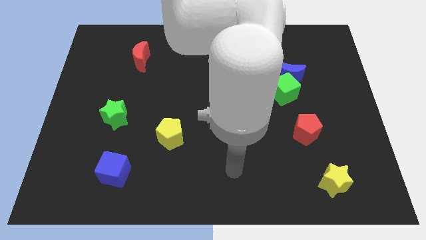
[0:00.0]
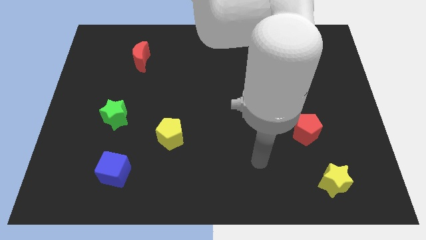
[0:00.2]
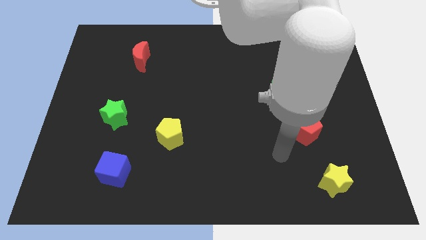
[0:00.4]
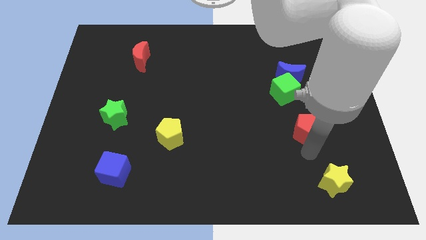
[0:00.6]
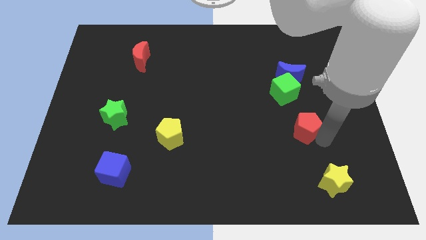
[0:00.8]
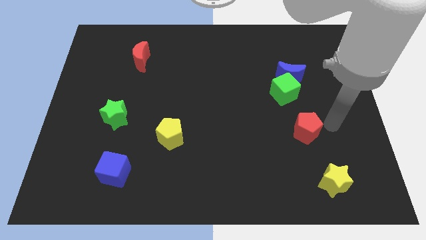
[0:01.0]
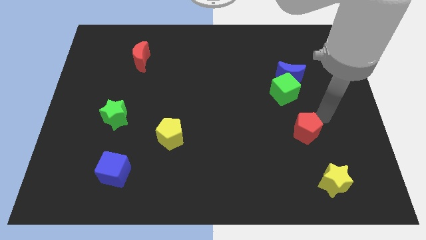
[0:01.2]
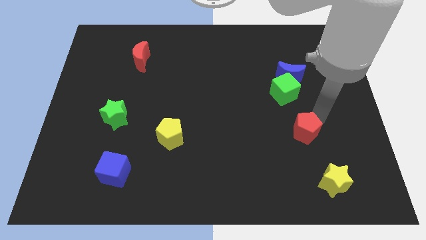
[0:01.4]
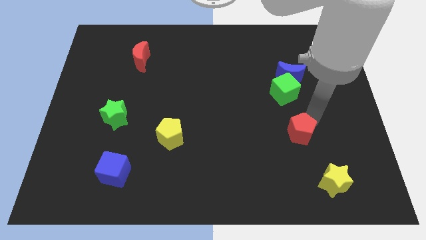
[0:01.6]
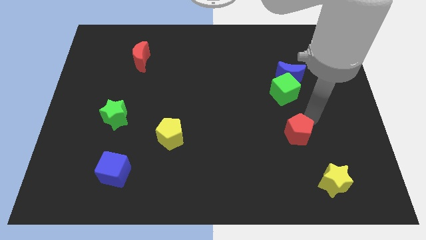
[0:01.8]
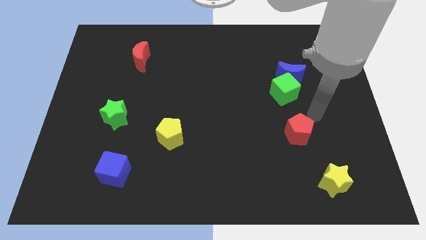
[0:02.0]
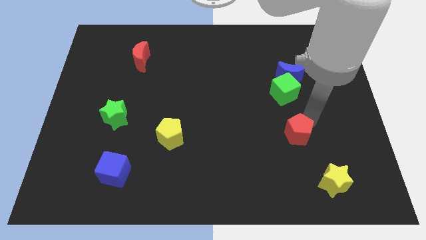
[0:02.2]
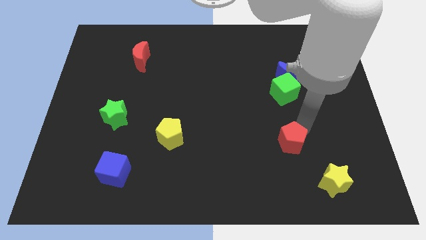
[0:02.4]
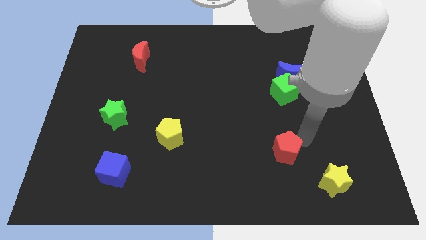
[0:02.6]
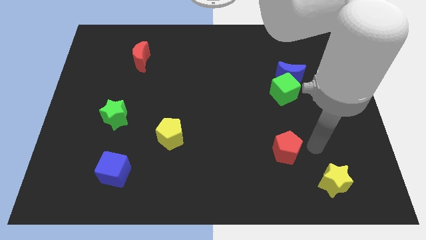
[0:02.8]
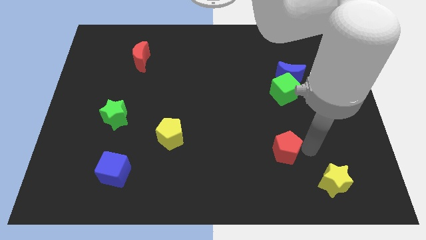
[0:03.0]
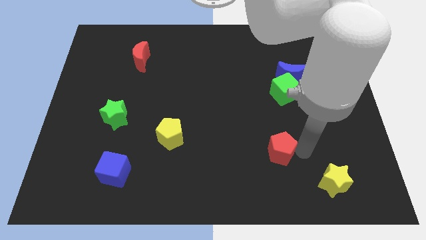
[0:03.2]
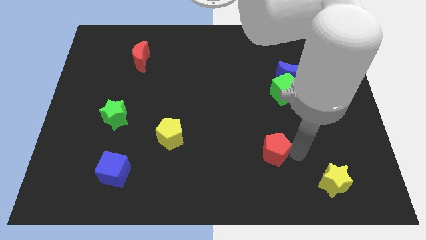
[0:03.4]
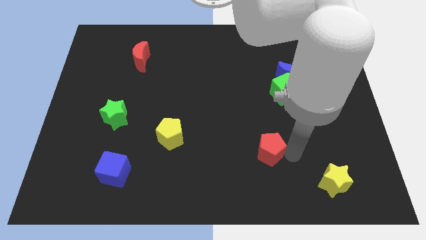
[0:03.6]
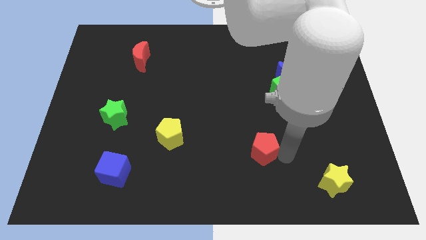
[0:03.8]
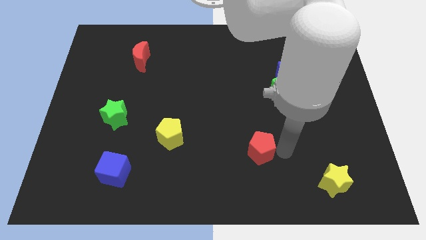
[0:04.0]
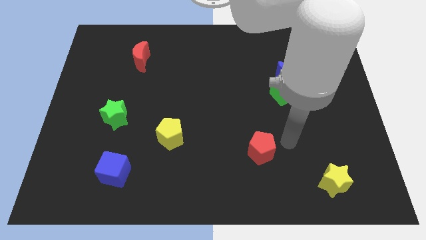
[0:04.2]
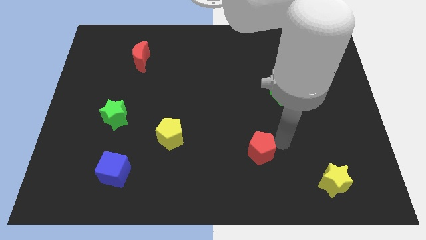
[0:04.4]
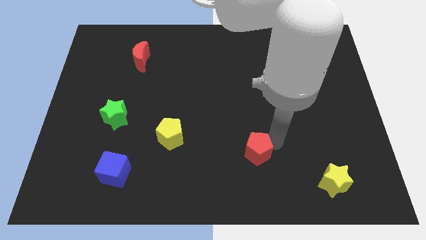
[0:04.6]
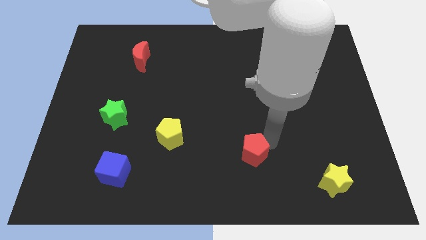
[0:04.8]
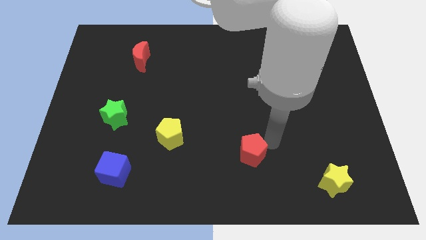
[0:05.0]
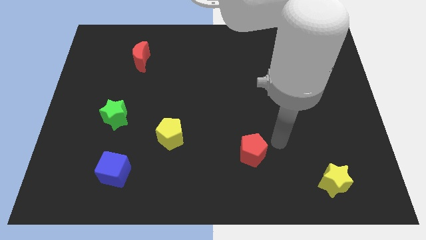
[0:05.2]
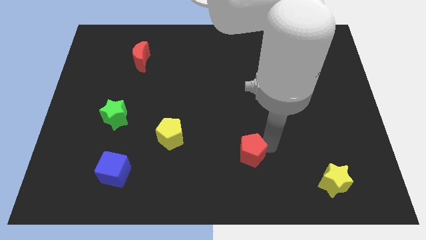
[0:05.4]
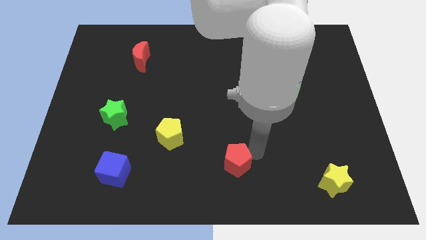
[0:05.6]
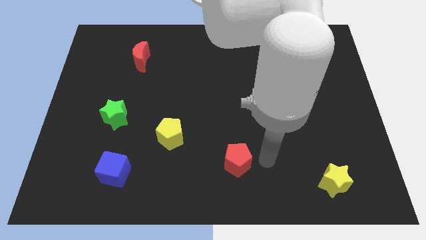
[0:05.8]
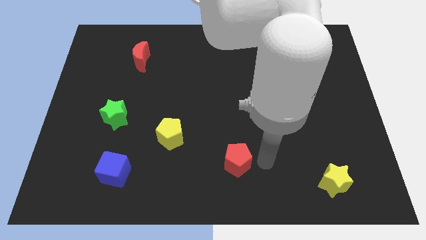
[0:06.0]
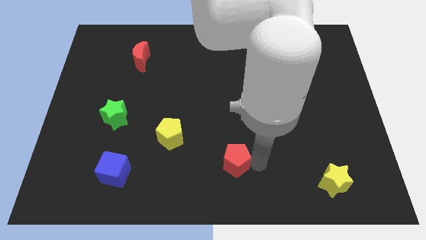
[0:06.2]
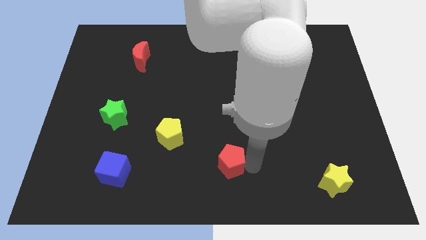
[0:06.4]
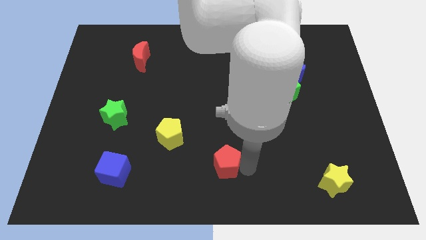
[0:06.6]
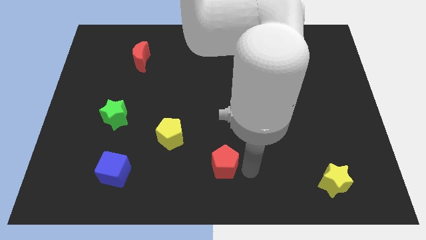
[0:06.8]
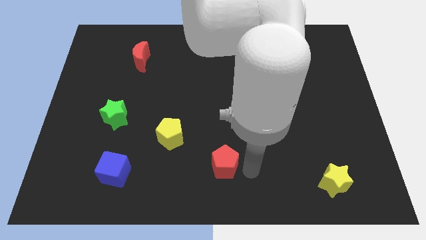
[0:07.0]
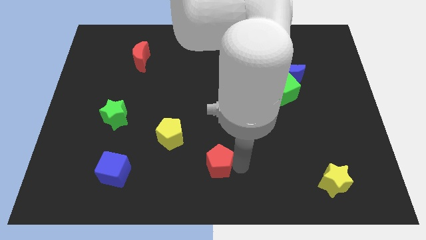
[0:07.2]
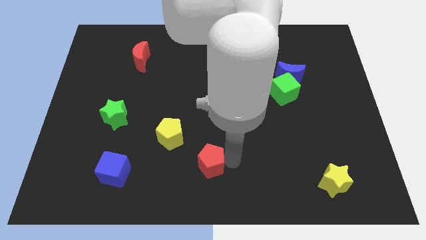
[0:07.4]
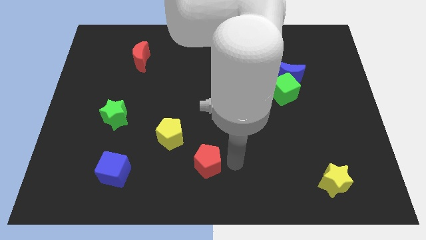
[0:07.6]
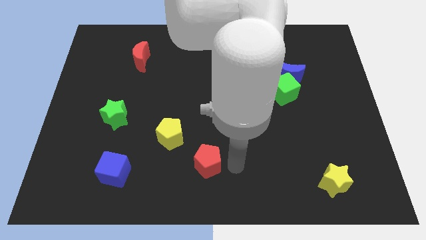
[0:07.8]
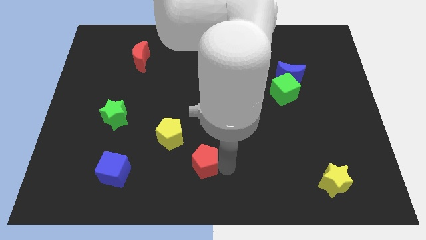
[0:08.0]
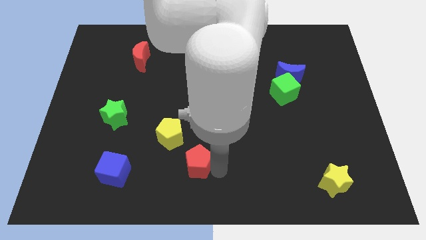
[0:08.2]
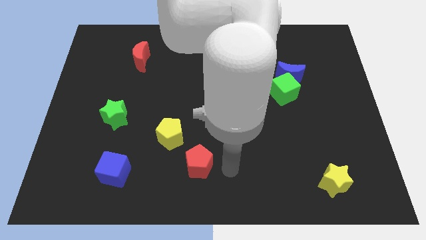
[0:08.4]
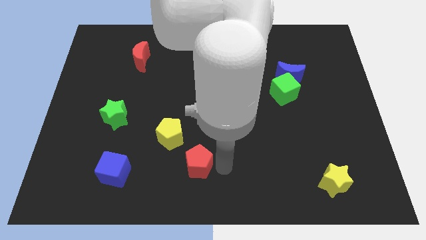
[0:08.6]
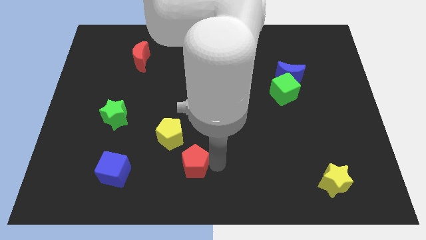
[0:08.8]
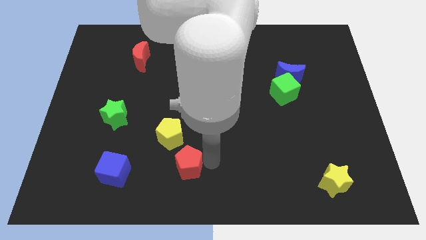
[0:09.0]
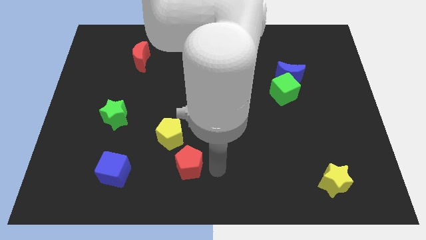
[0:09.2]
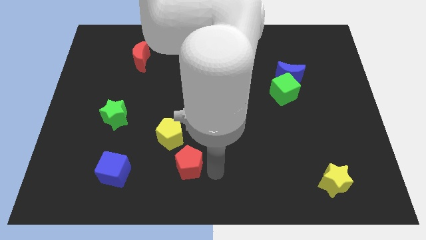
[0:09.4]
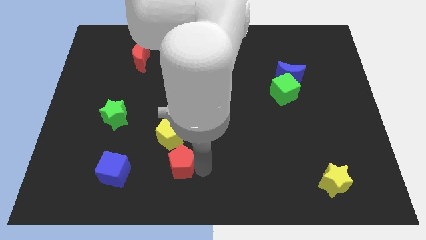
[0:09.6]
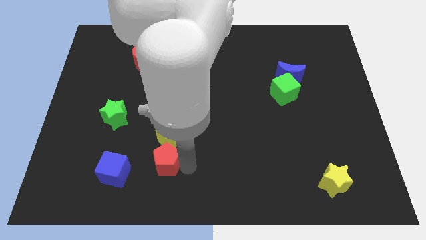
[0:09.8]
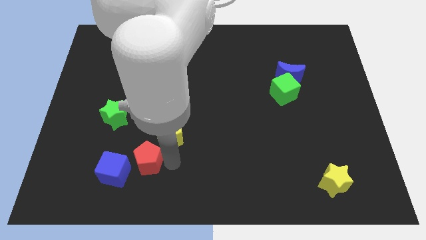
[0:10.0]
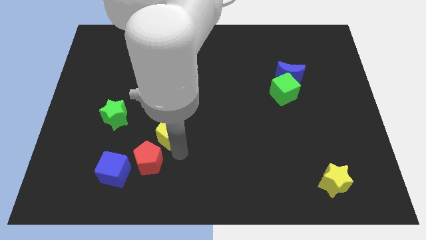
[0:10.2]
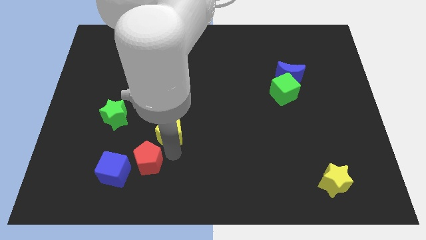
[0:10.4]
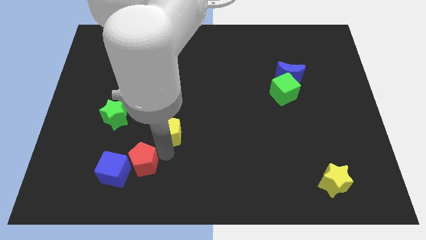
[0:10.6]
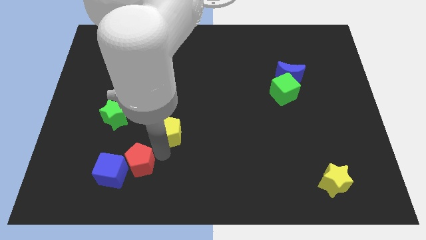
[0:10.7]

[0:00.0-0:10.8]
slide the red pentagon to the blue cube

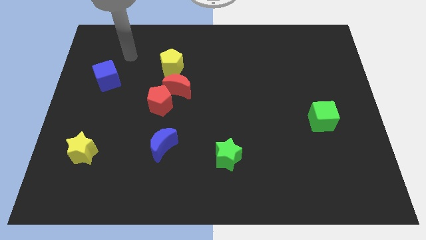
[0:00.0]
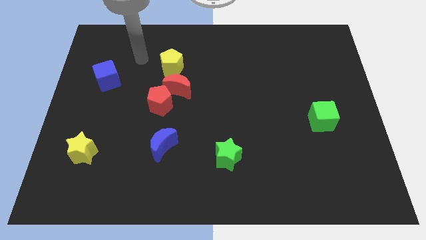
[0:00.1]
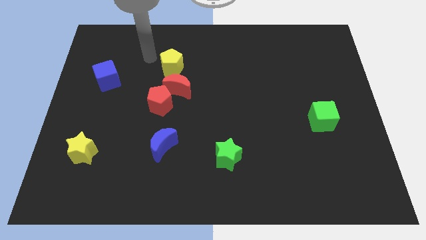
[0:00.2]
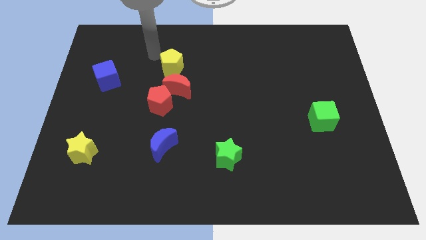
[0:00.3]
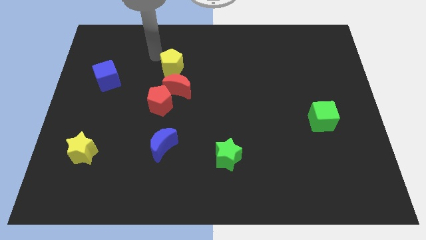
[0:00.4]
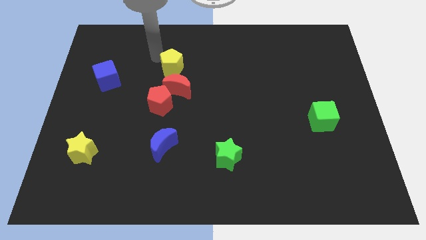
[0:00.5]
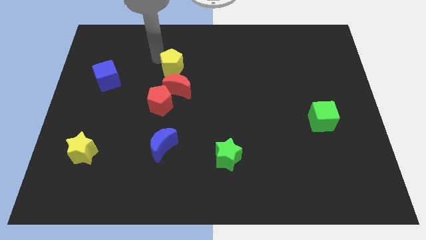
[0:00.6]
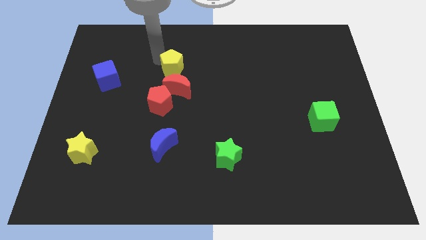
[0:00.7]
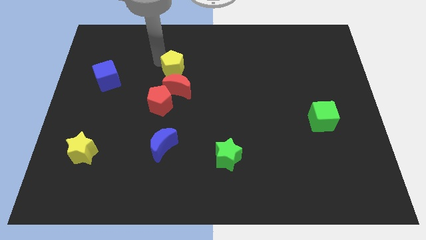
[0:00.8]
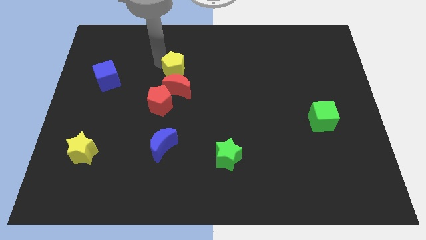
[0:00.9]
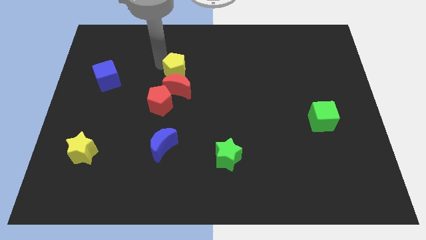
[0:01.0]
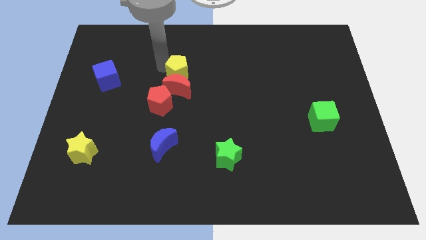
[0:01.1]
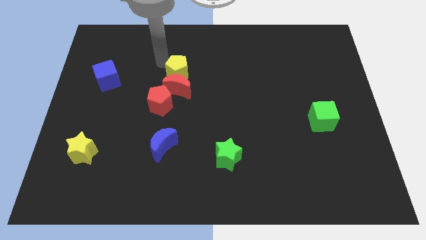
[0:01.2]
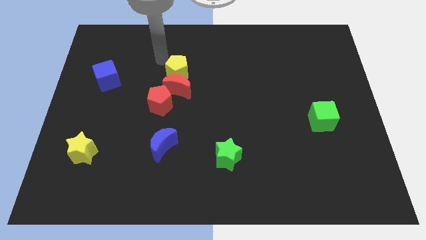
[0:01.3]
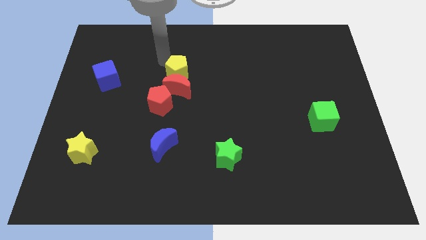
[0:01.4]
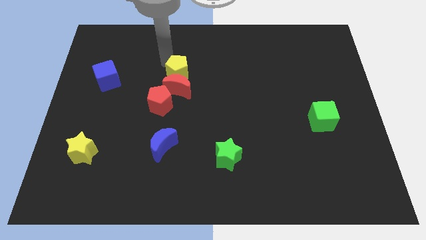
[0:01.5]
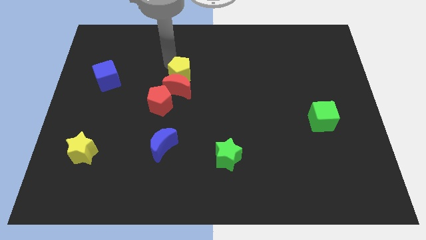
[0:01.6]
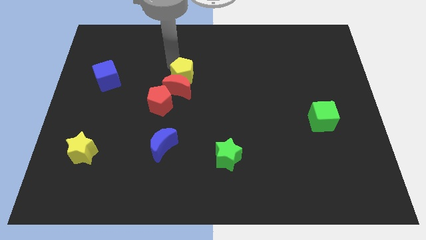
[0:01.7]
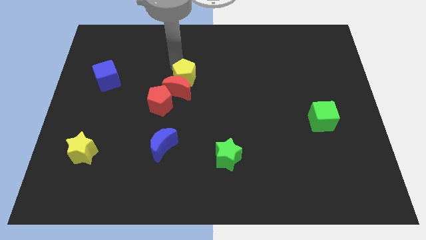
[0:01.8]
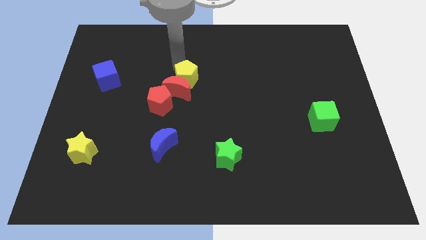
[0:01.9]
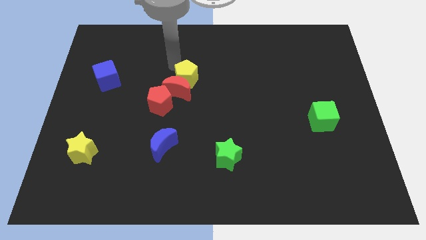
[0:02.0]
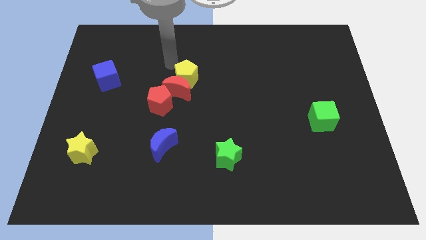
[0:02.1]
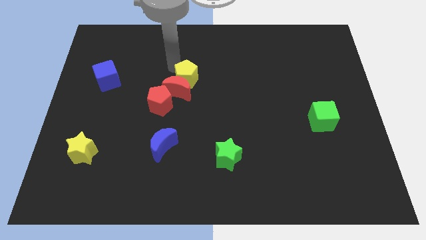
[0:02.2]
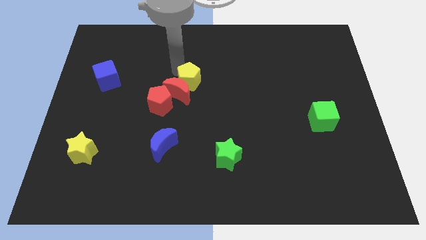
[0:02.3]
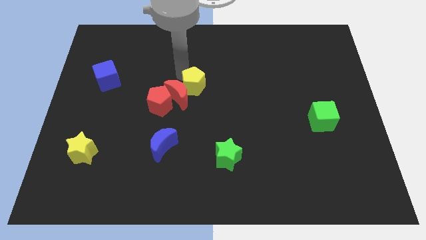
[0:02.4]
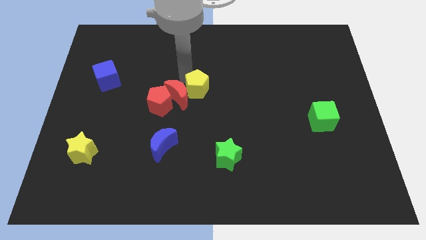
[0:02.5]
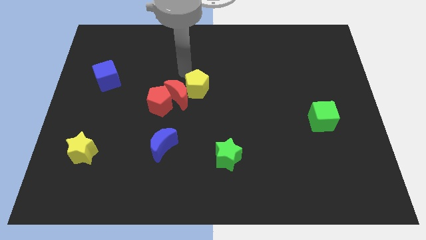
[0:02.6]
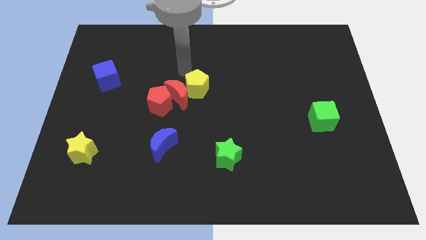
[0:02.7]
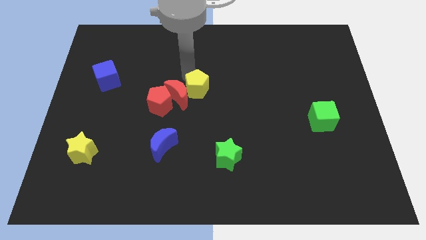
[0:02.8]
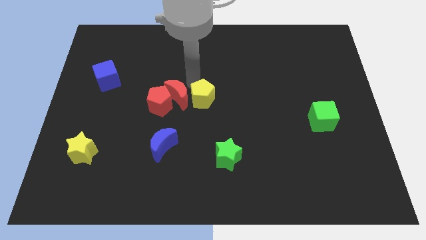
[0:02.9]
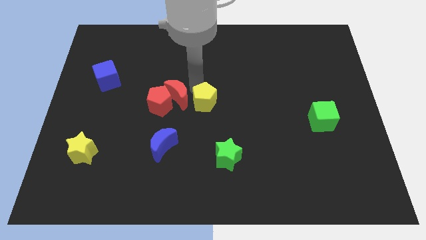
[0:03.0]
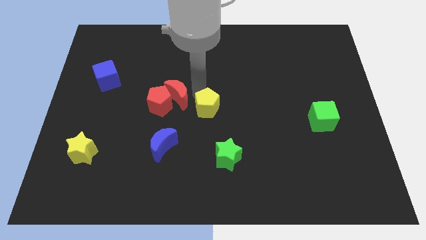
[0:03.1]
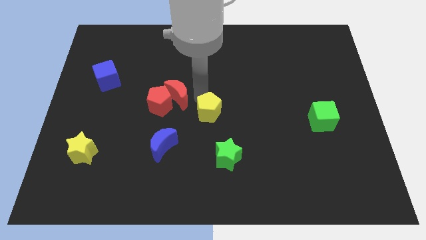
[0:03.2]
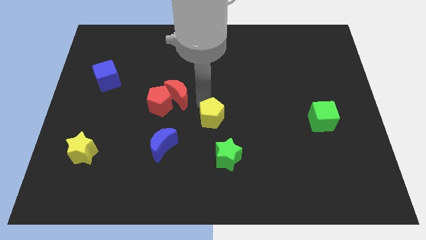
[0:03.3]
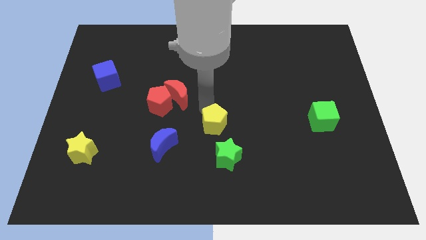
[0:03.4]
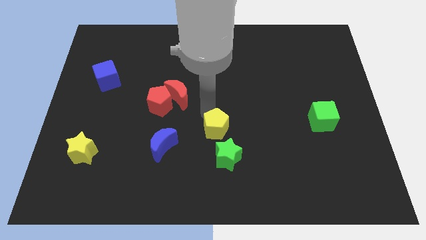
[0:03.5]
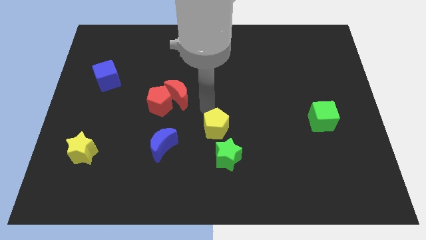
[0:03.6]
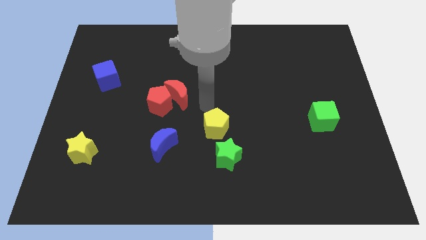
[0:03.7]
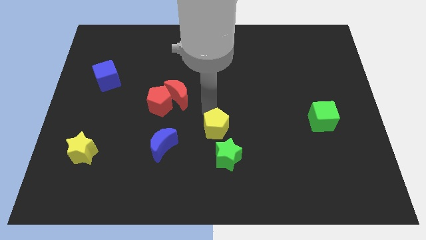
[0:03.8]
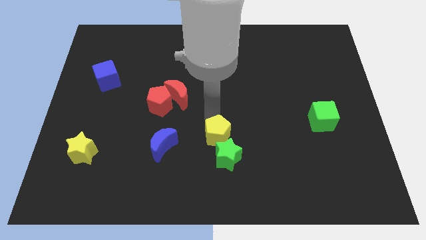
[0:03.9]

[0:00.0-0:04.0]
slide the yellow pentagon towards the green star
